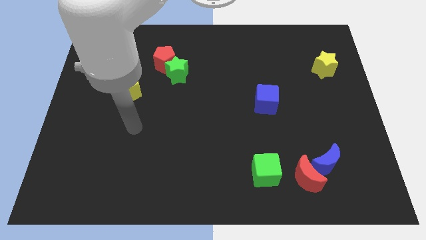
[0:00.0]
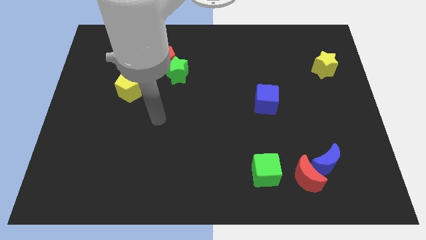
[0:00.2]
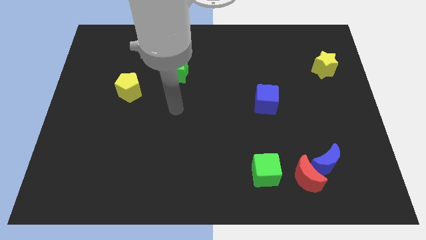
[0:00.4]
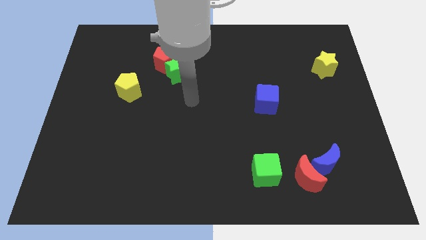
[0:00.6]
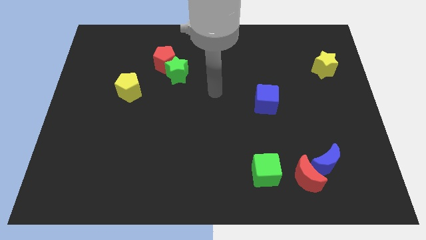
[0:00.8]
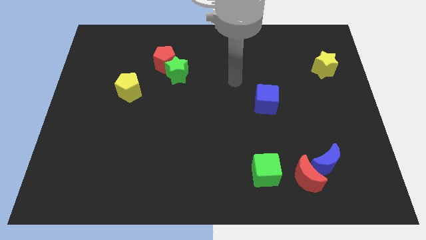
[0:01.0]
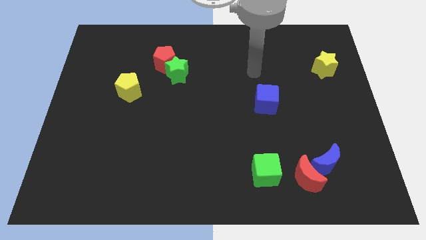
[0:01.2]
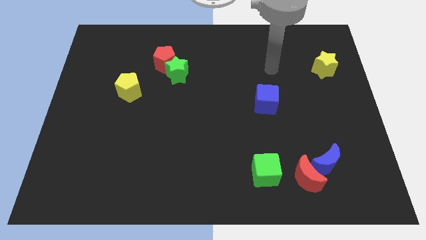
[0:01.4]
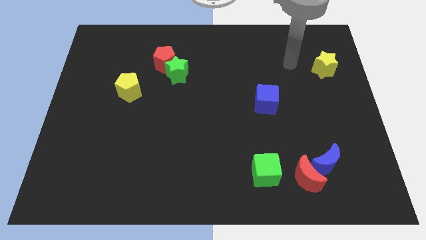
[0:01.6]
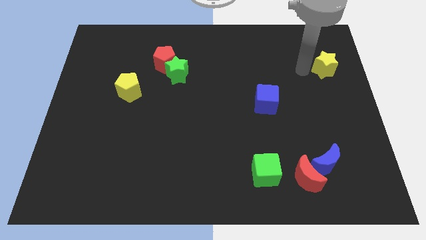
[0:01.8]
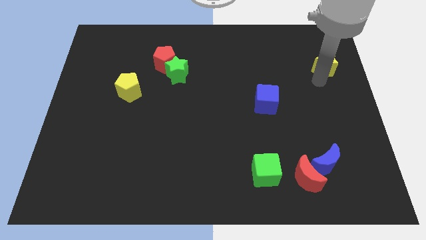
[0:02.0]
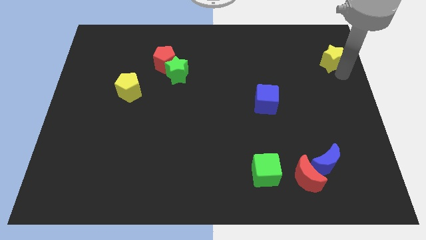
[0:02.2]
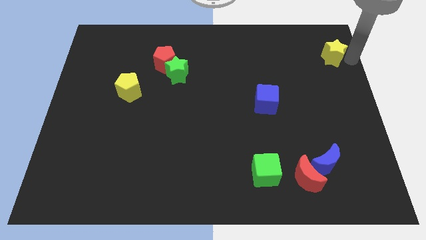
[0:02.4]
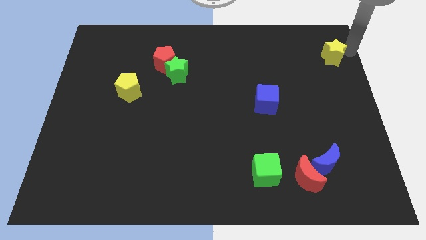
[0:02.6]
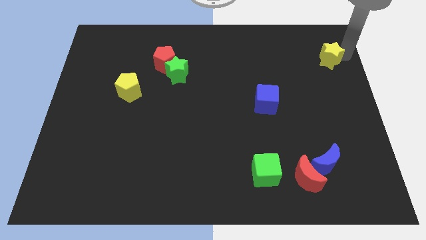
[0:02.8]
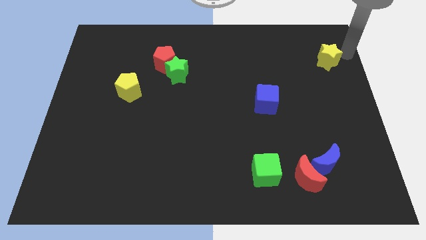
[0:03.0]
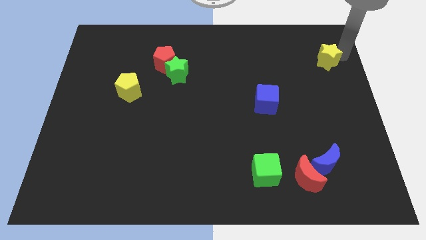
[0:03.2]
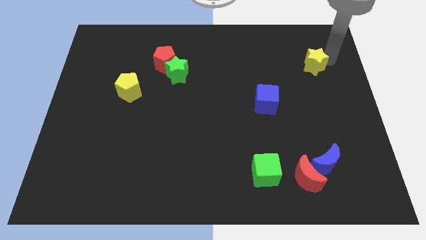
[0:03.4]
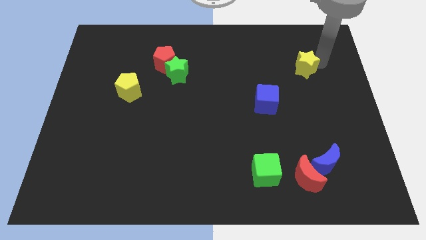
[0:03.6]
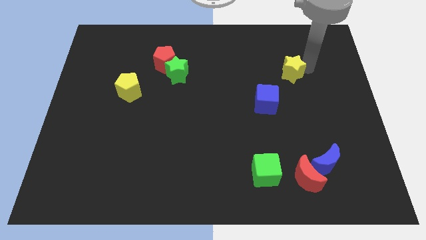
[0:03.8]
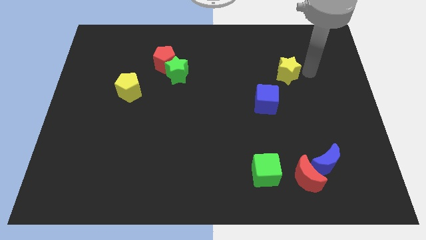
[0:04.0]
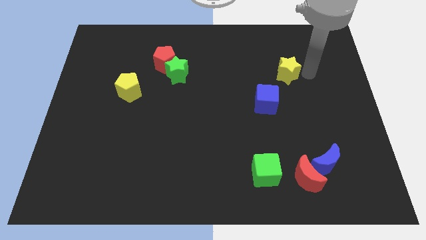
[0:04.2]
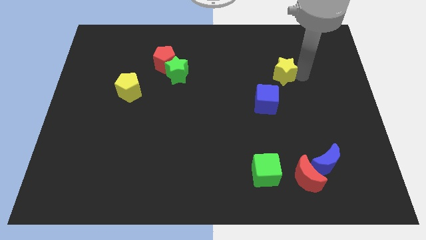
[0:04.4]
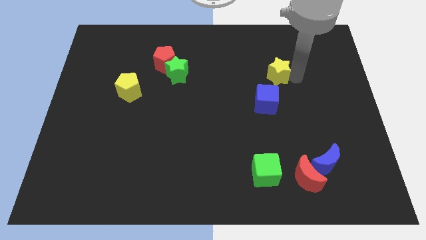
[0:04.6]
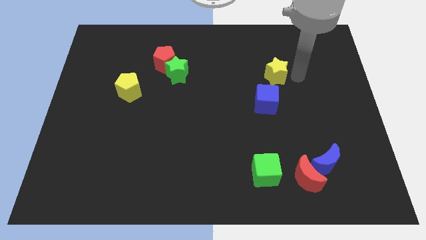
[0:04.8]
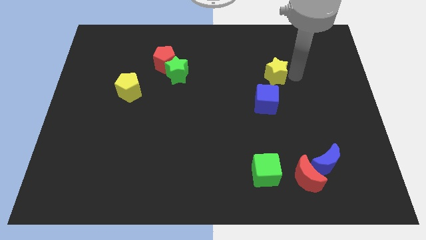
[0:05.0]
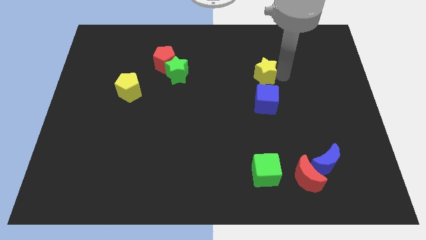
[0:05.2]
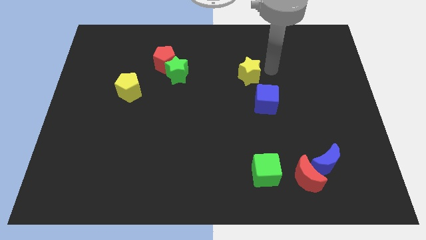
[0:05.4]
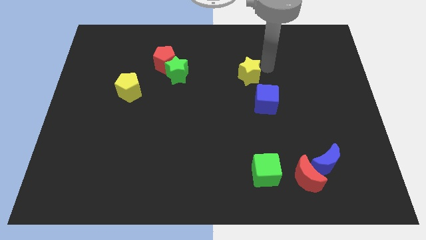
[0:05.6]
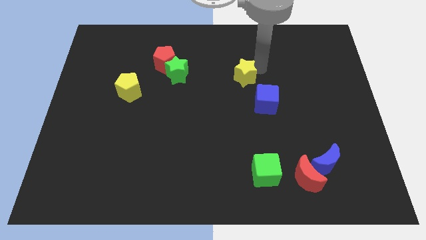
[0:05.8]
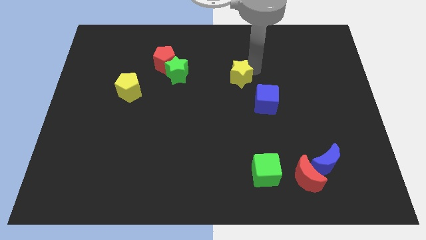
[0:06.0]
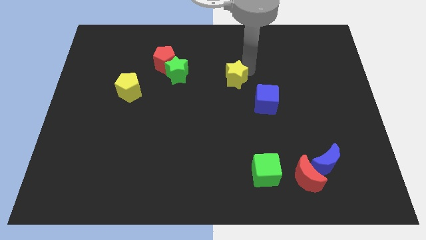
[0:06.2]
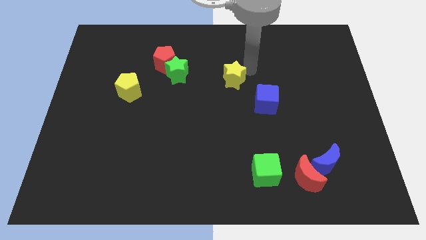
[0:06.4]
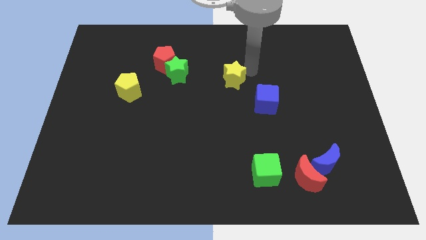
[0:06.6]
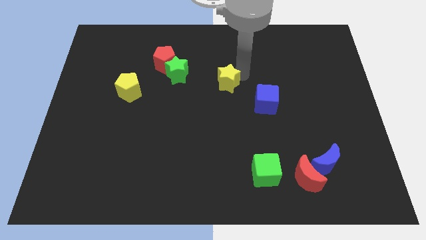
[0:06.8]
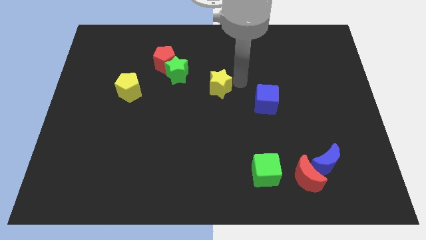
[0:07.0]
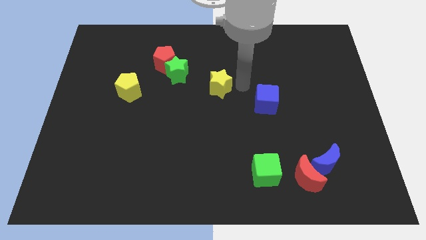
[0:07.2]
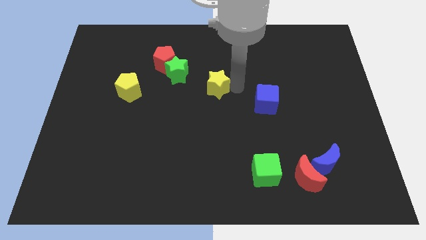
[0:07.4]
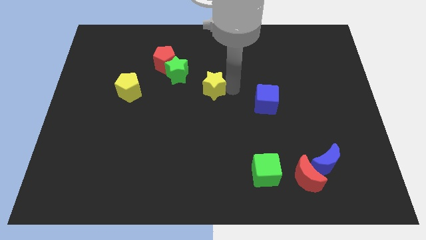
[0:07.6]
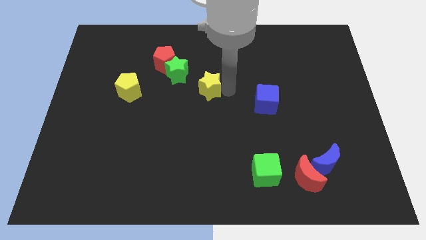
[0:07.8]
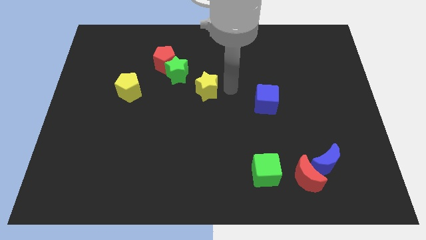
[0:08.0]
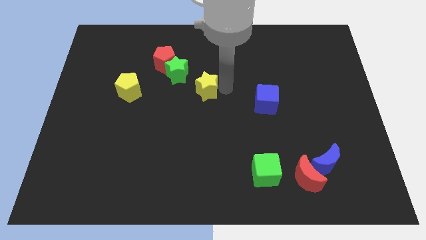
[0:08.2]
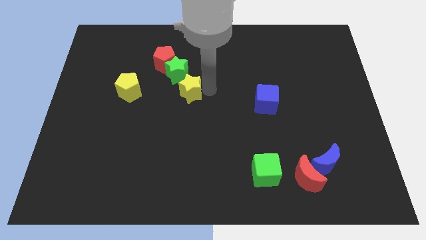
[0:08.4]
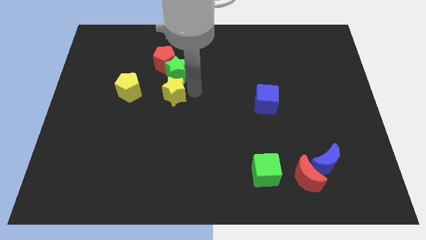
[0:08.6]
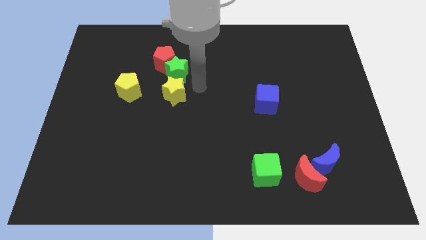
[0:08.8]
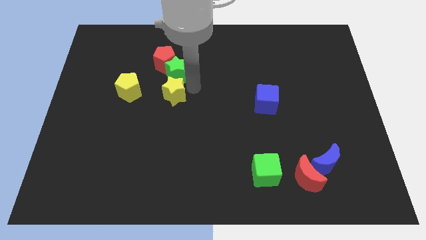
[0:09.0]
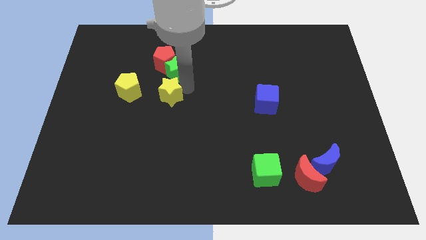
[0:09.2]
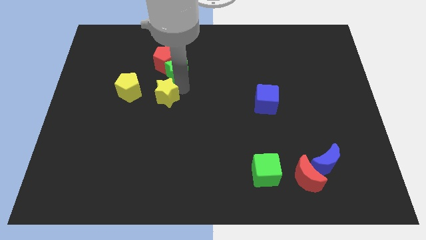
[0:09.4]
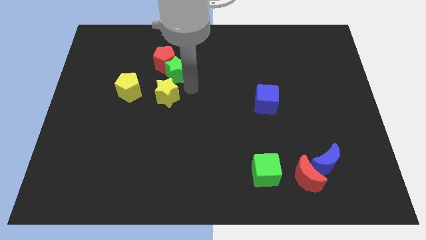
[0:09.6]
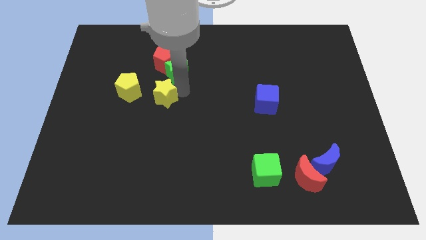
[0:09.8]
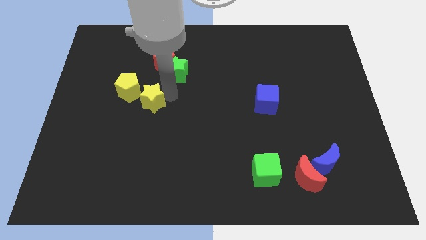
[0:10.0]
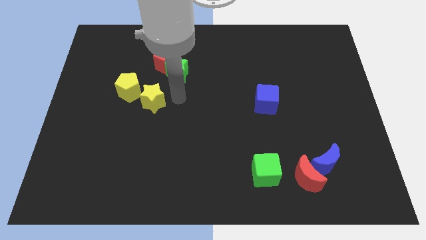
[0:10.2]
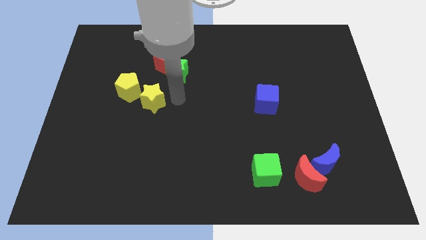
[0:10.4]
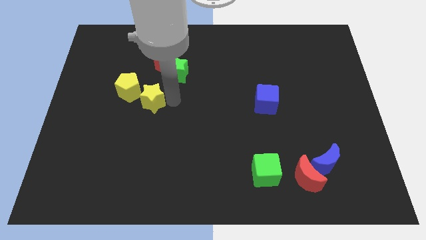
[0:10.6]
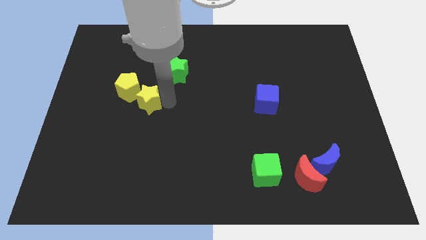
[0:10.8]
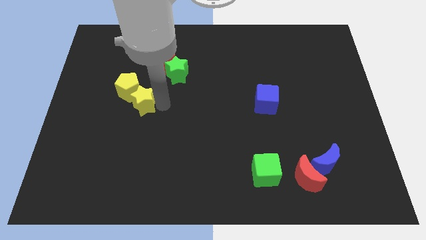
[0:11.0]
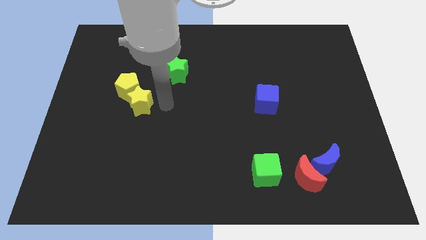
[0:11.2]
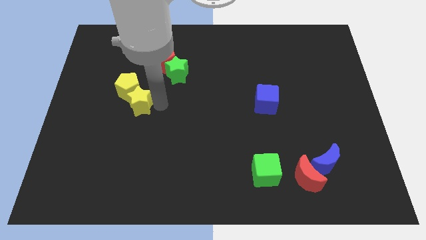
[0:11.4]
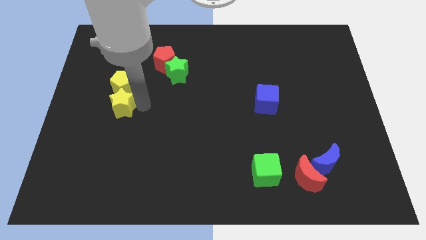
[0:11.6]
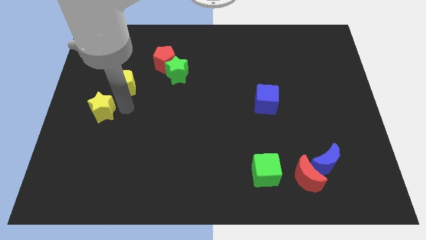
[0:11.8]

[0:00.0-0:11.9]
push the yellow star to the left side

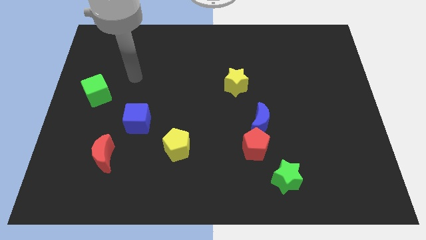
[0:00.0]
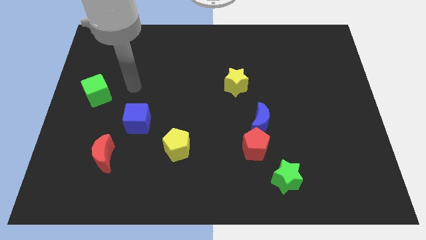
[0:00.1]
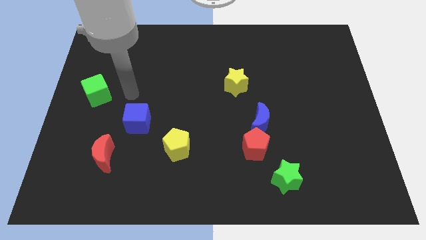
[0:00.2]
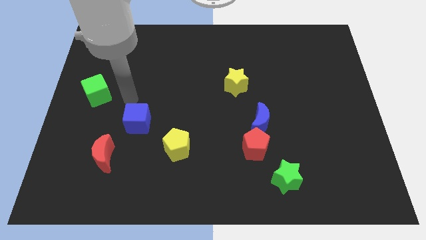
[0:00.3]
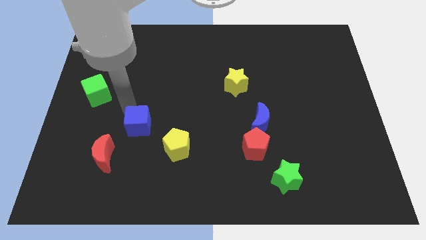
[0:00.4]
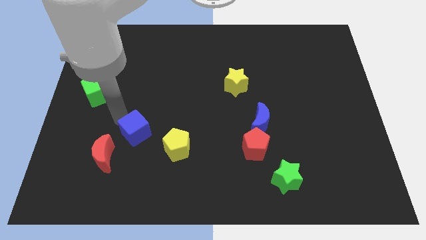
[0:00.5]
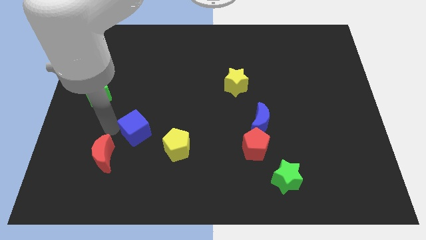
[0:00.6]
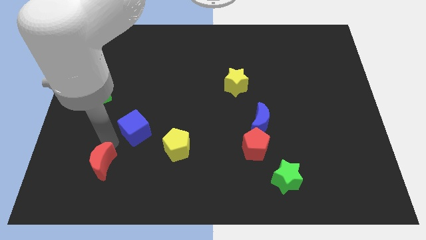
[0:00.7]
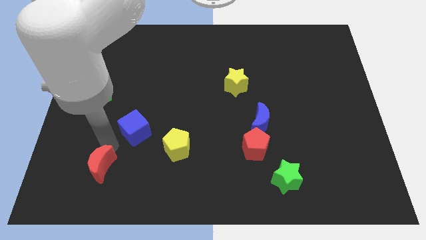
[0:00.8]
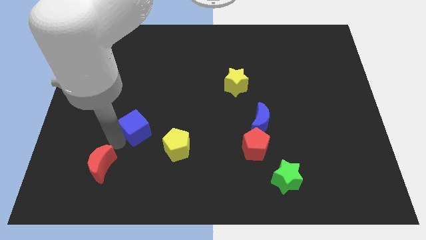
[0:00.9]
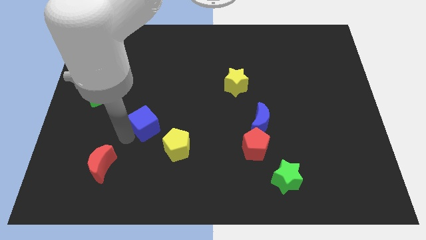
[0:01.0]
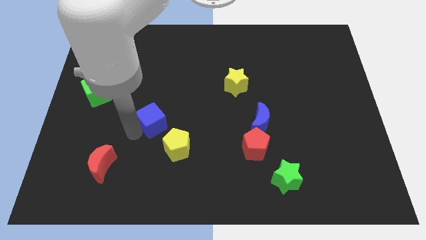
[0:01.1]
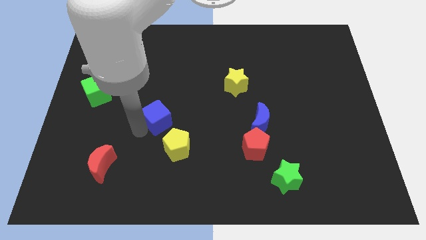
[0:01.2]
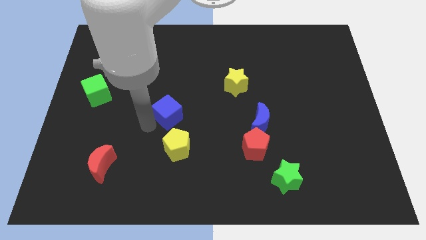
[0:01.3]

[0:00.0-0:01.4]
push the blue cube to the center
